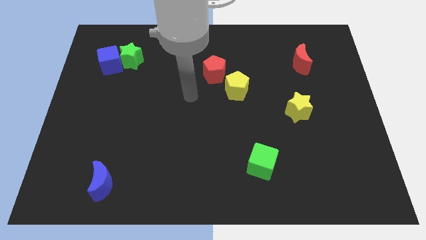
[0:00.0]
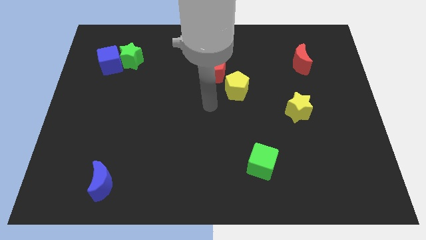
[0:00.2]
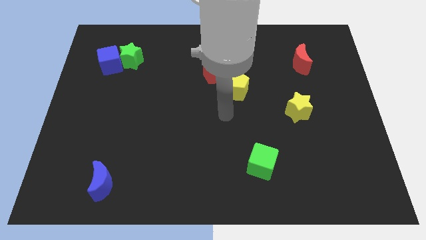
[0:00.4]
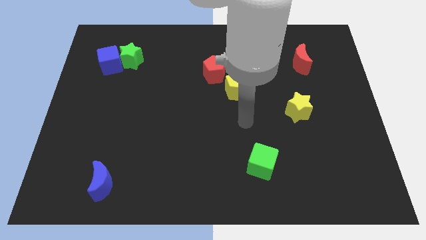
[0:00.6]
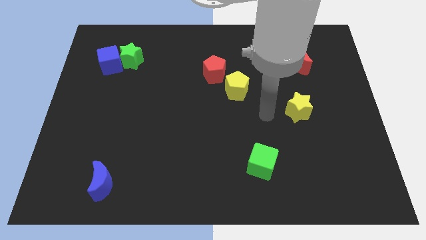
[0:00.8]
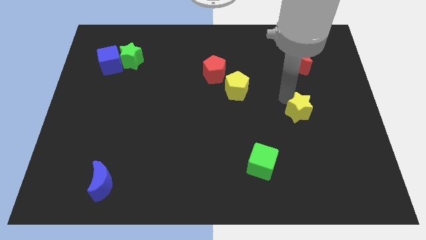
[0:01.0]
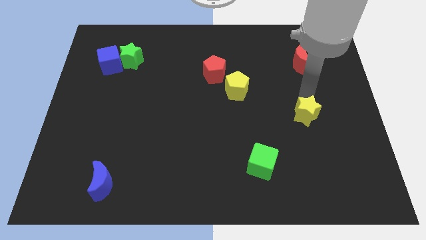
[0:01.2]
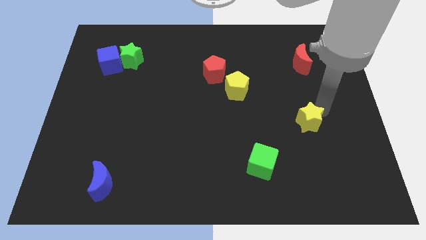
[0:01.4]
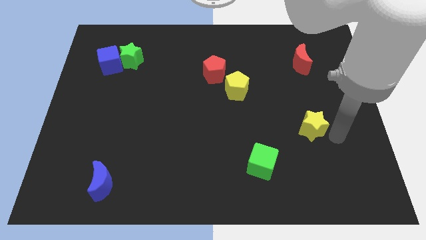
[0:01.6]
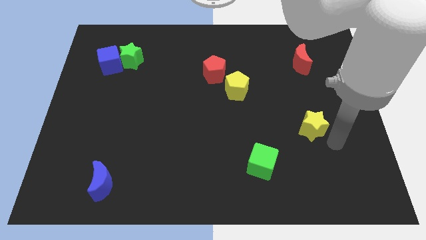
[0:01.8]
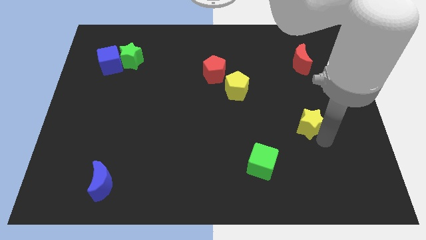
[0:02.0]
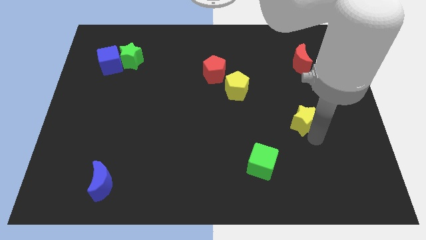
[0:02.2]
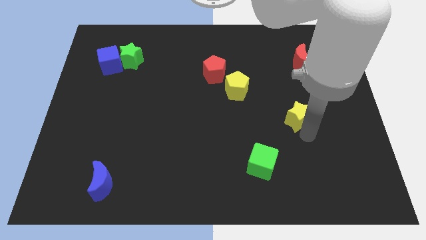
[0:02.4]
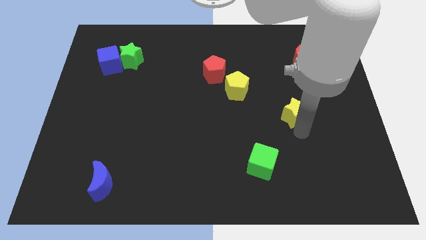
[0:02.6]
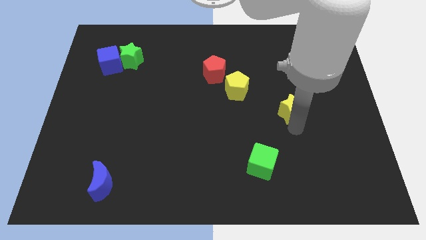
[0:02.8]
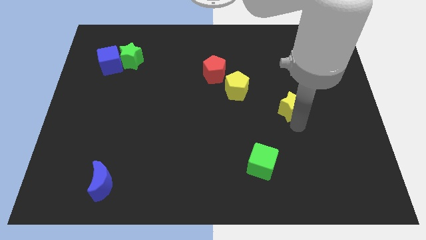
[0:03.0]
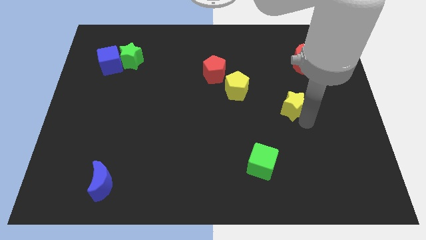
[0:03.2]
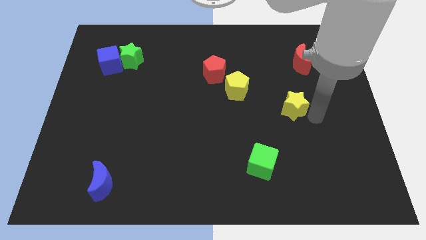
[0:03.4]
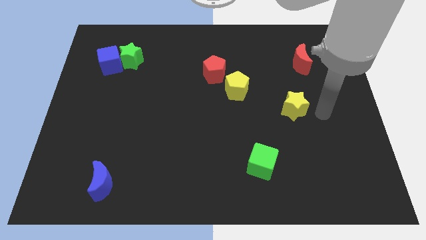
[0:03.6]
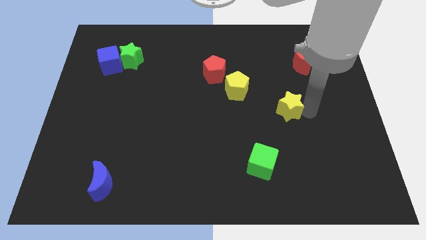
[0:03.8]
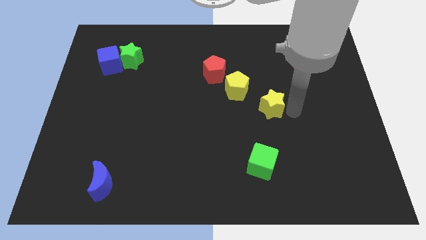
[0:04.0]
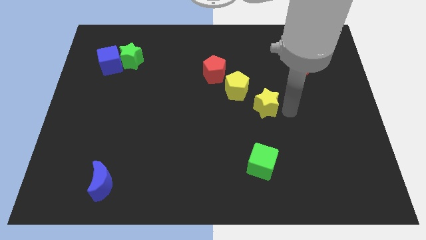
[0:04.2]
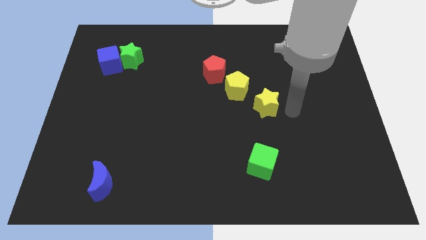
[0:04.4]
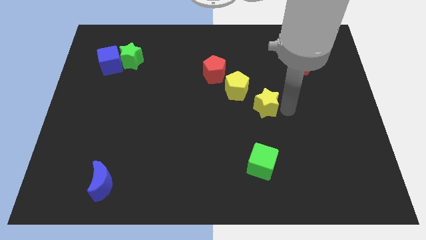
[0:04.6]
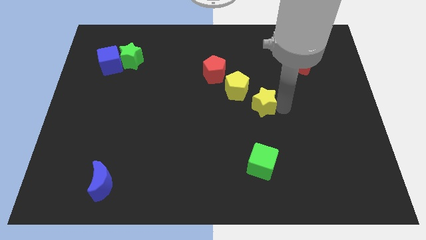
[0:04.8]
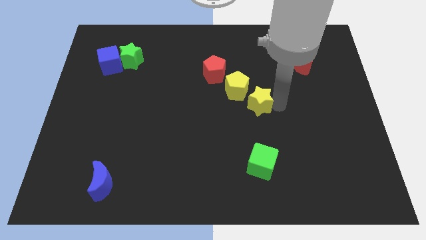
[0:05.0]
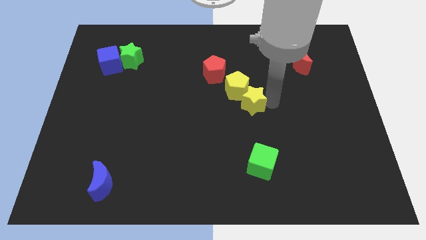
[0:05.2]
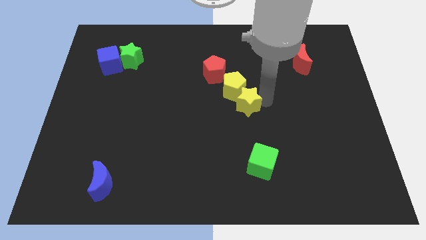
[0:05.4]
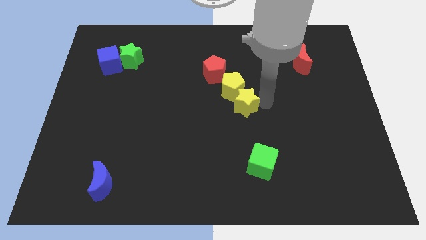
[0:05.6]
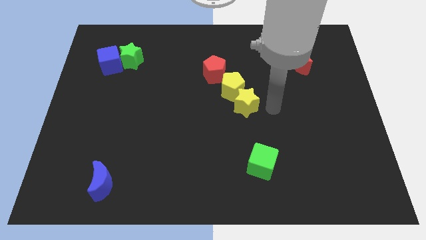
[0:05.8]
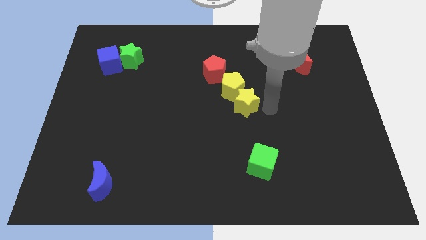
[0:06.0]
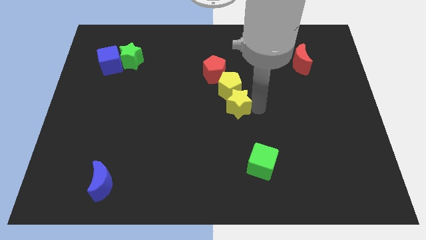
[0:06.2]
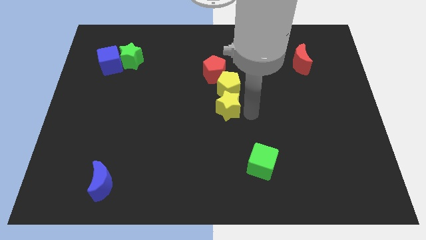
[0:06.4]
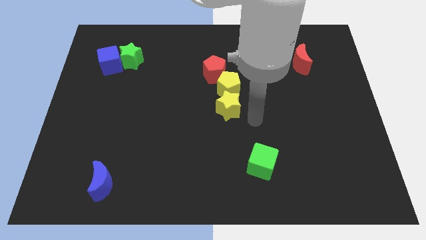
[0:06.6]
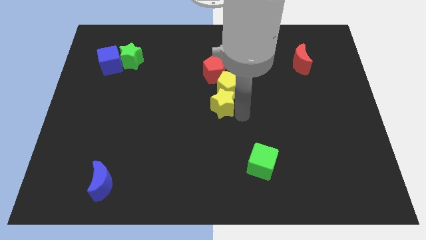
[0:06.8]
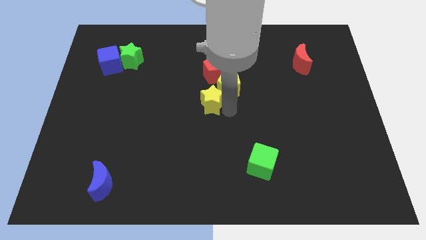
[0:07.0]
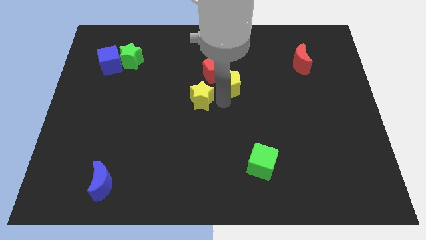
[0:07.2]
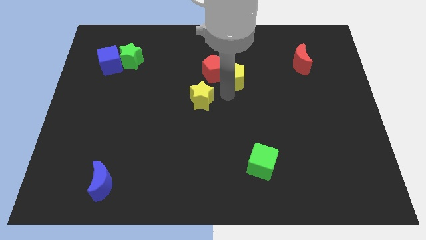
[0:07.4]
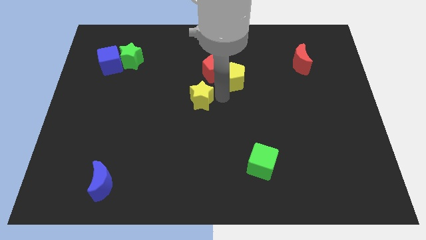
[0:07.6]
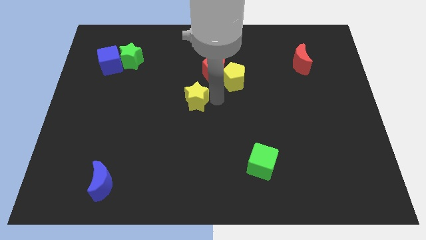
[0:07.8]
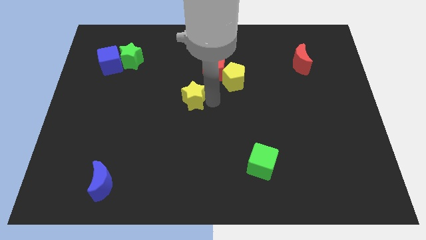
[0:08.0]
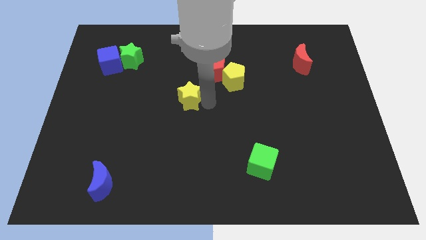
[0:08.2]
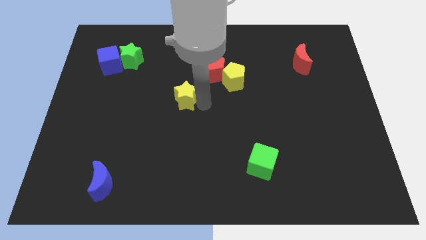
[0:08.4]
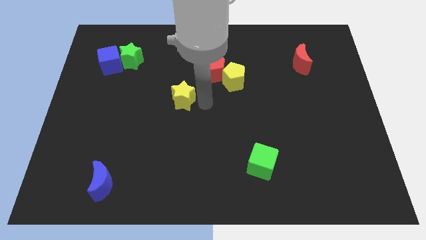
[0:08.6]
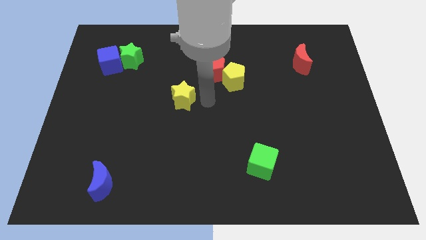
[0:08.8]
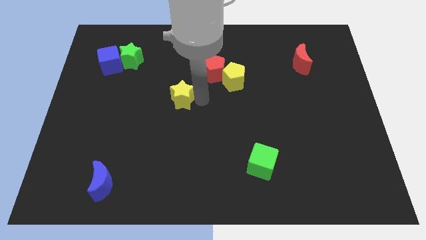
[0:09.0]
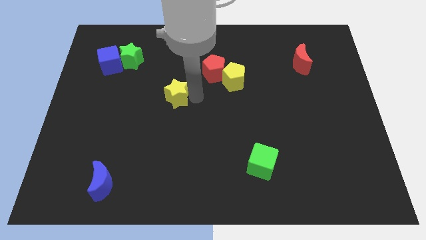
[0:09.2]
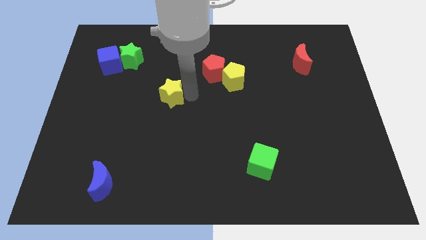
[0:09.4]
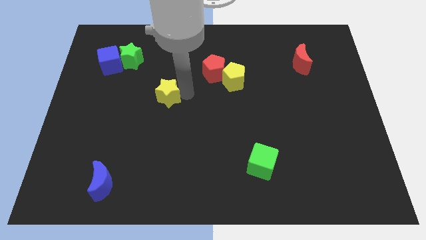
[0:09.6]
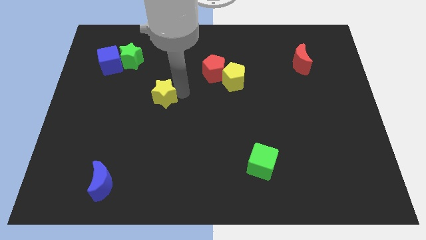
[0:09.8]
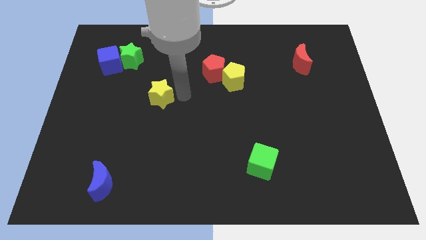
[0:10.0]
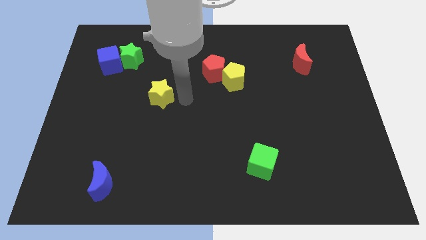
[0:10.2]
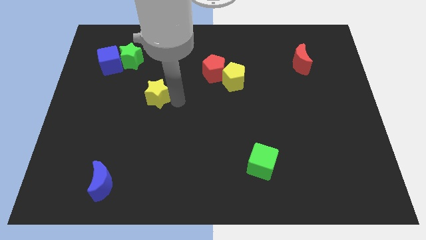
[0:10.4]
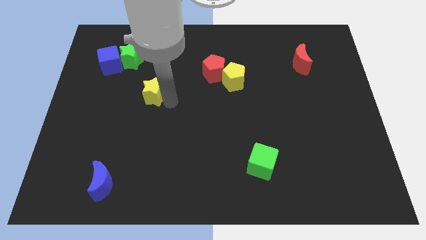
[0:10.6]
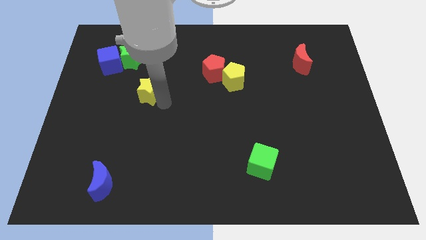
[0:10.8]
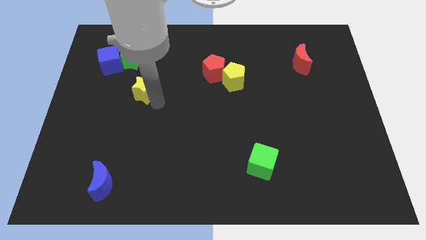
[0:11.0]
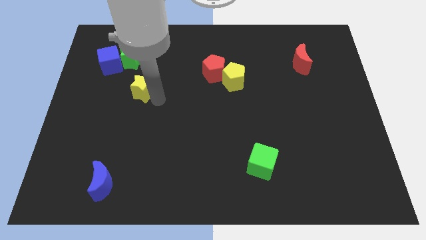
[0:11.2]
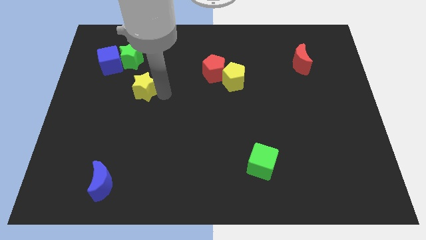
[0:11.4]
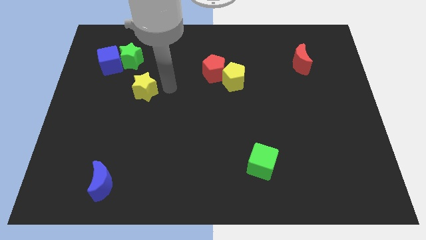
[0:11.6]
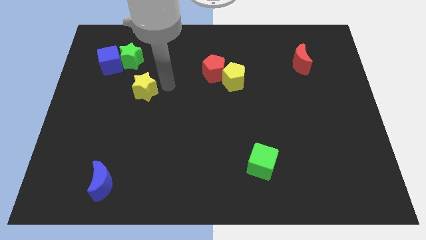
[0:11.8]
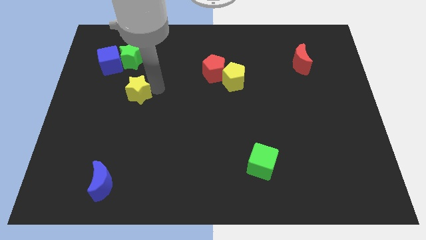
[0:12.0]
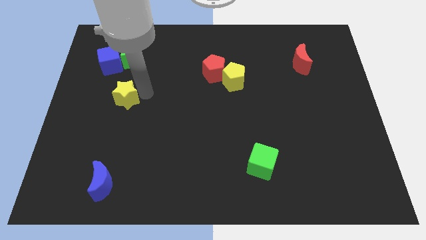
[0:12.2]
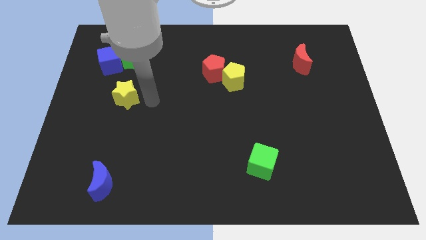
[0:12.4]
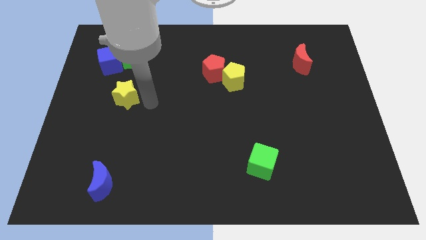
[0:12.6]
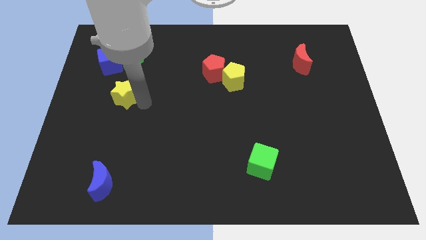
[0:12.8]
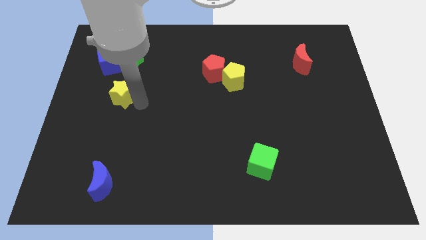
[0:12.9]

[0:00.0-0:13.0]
slide the yellow star below the blue cube
